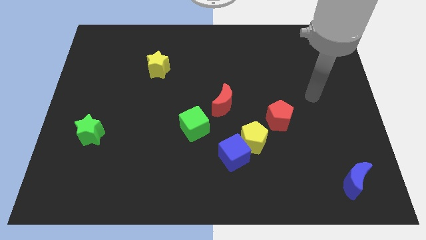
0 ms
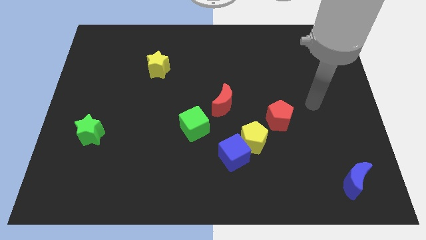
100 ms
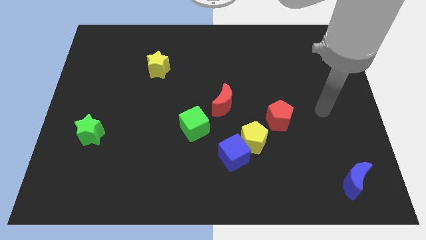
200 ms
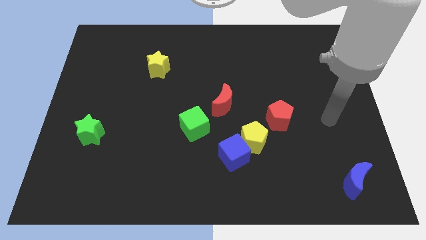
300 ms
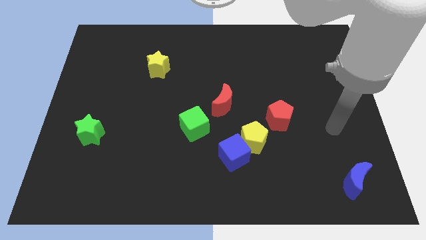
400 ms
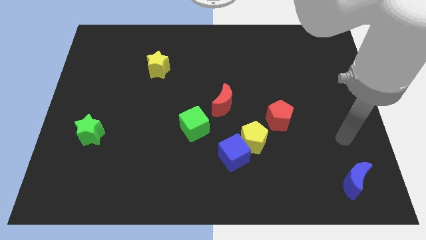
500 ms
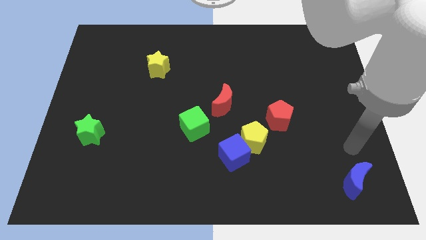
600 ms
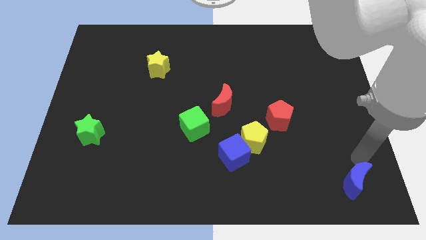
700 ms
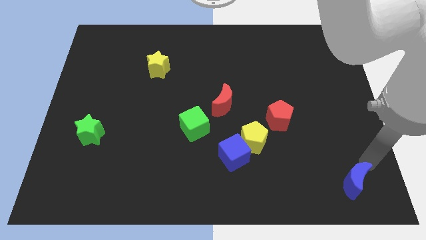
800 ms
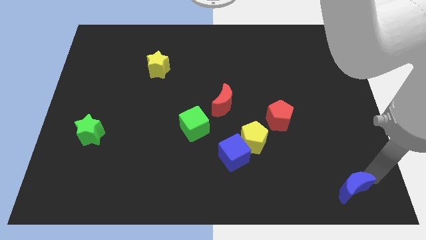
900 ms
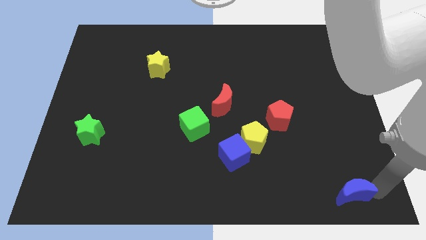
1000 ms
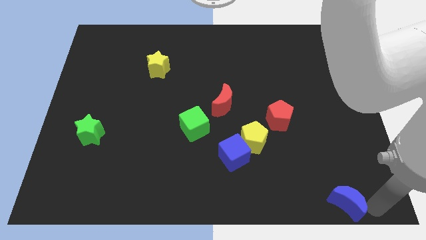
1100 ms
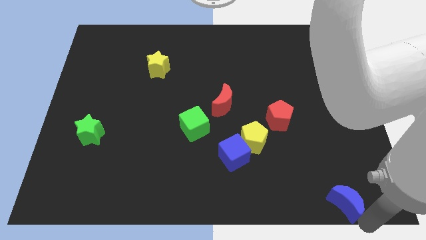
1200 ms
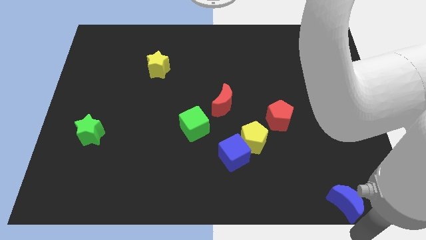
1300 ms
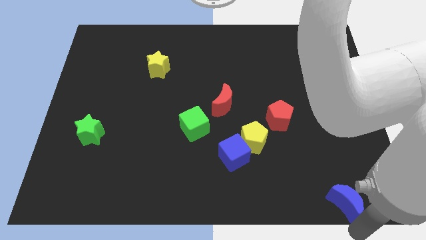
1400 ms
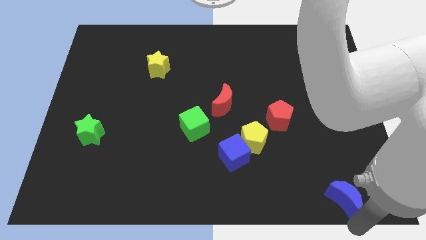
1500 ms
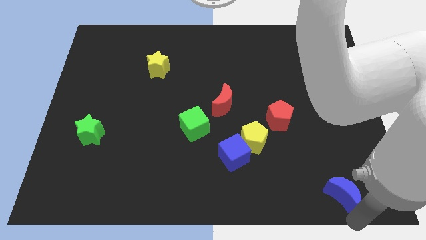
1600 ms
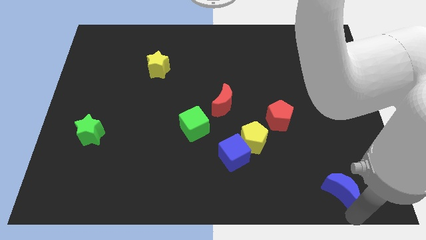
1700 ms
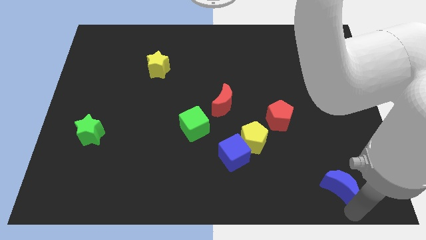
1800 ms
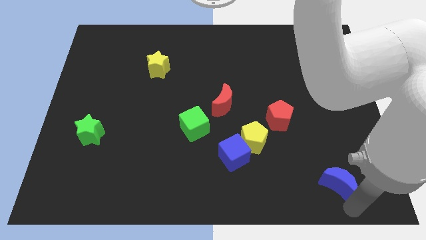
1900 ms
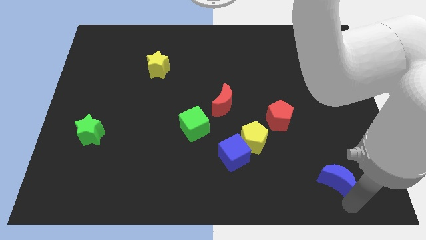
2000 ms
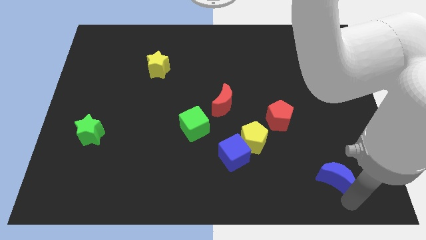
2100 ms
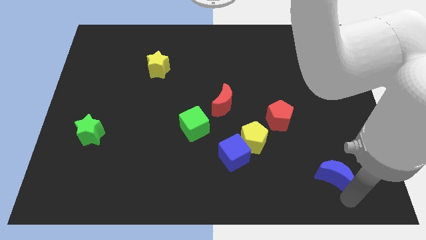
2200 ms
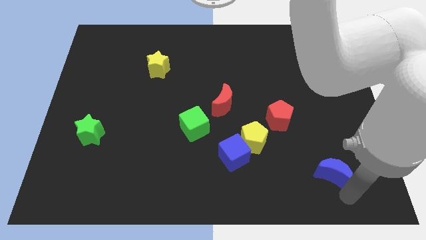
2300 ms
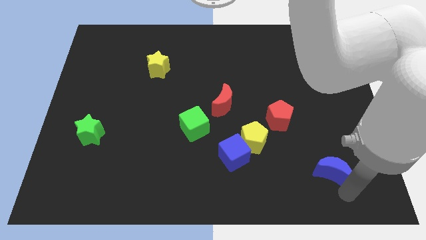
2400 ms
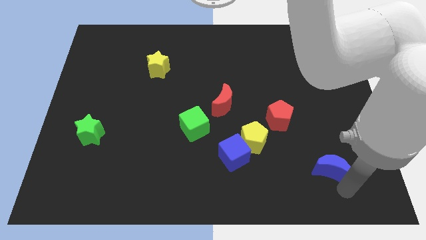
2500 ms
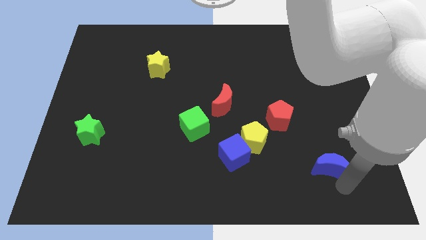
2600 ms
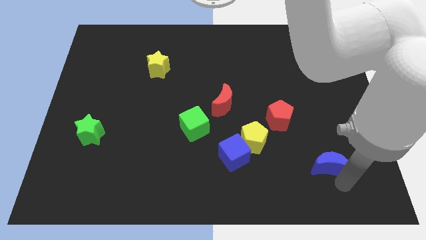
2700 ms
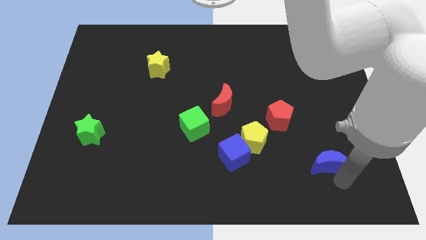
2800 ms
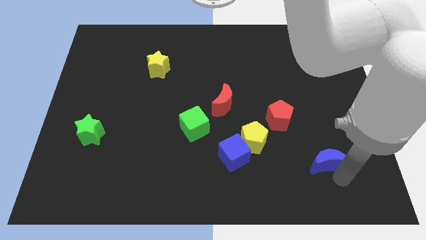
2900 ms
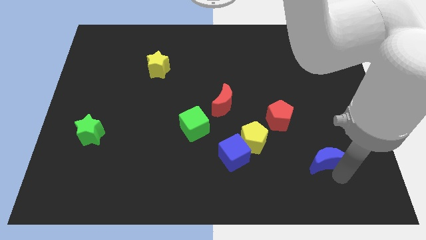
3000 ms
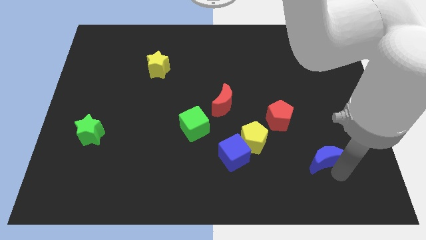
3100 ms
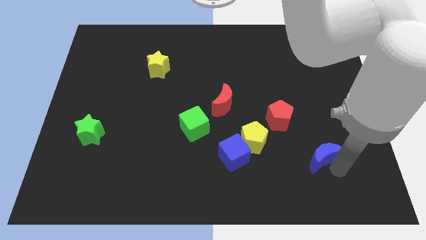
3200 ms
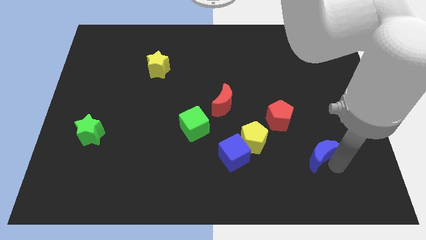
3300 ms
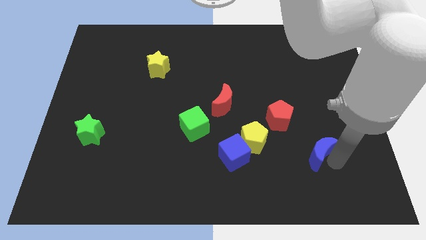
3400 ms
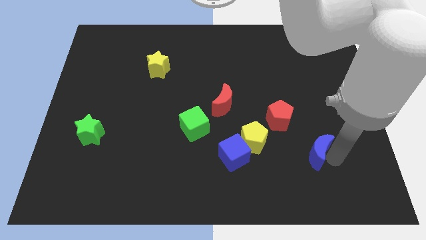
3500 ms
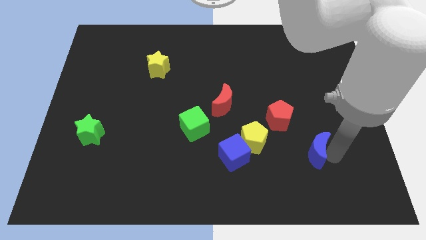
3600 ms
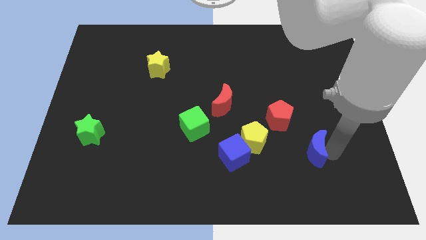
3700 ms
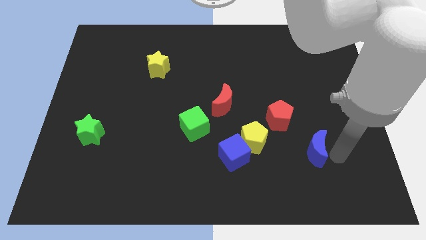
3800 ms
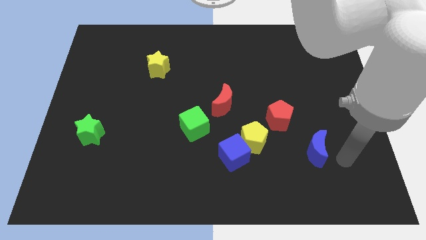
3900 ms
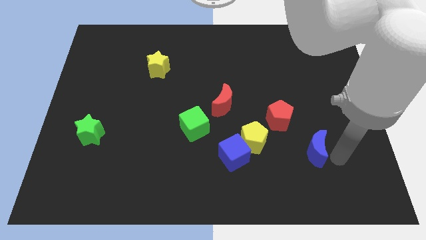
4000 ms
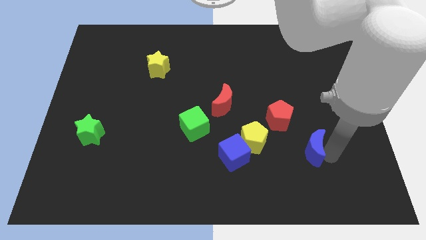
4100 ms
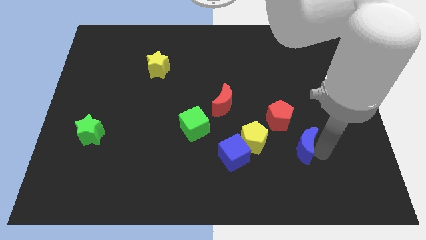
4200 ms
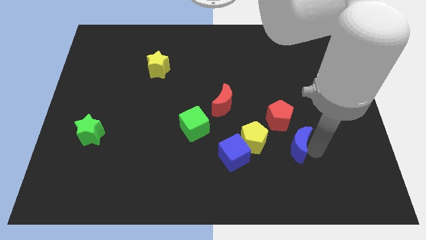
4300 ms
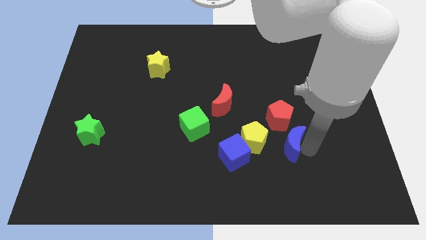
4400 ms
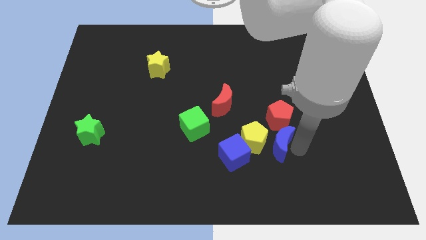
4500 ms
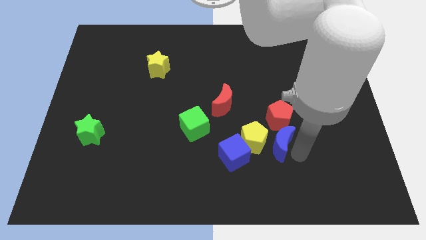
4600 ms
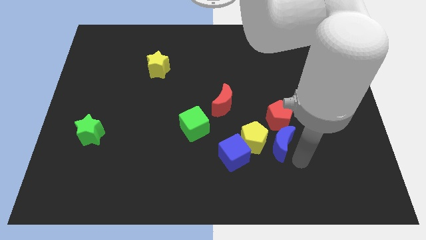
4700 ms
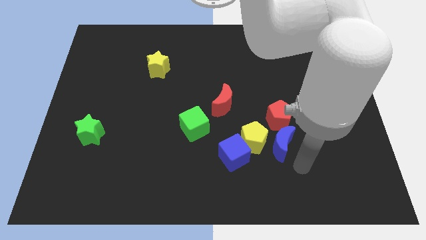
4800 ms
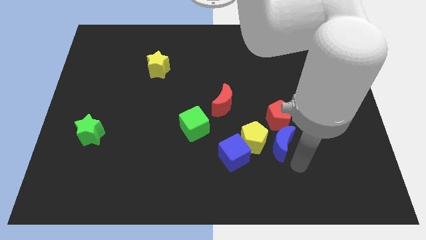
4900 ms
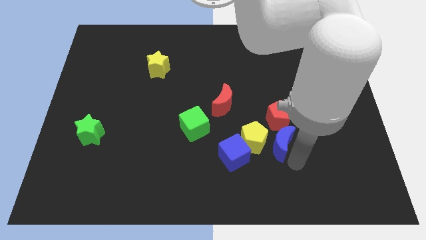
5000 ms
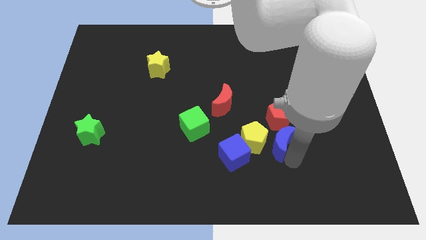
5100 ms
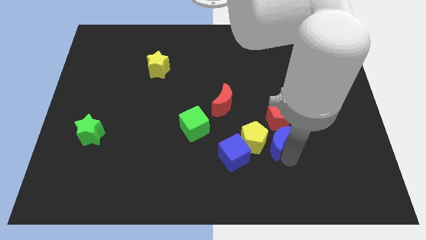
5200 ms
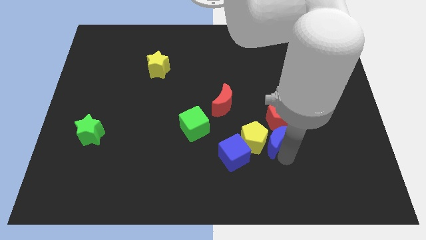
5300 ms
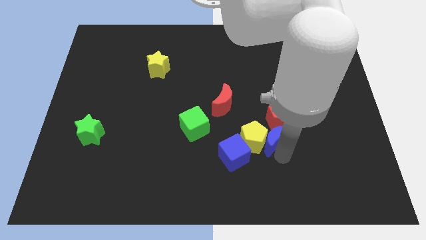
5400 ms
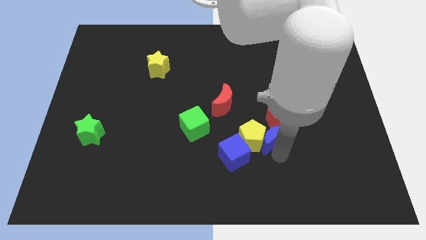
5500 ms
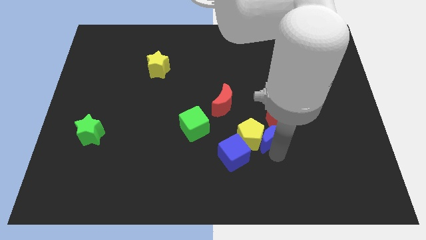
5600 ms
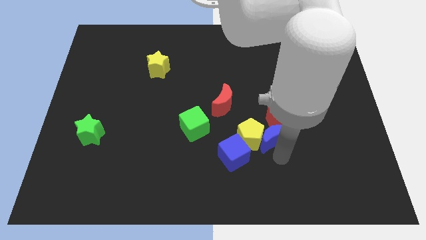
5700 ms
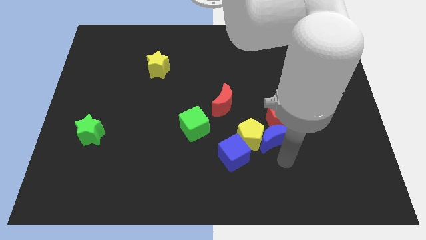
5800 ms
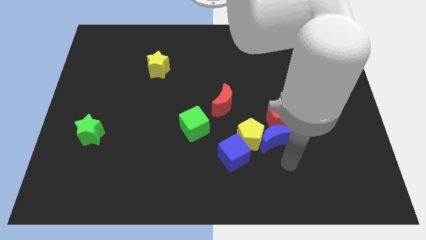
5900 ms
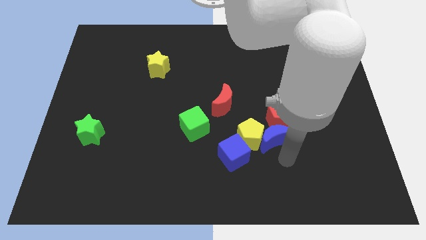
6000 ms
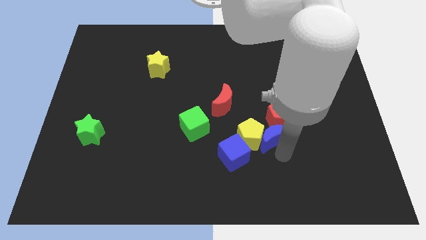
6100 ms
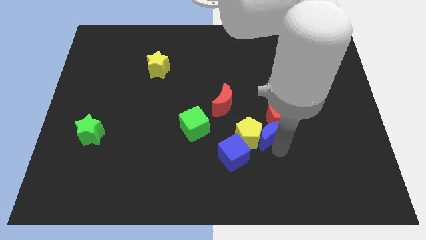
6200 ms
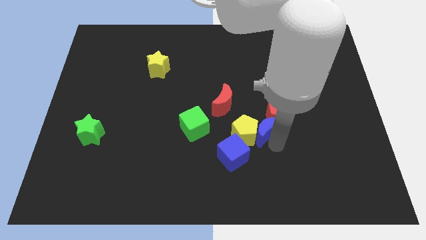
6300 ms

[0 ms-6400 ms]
slide the blue moon up and left diagonally

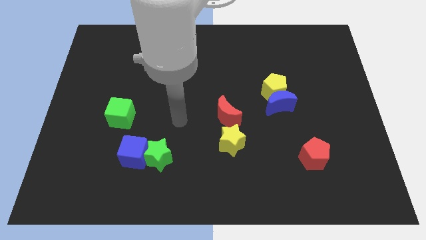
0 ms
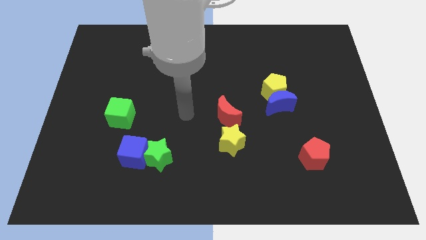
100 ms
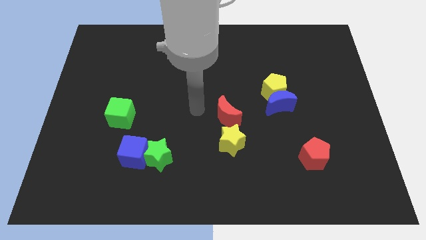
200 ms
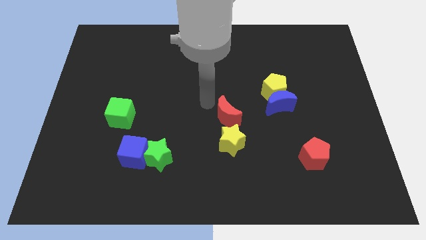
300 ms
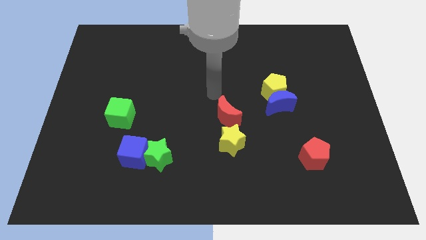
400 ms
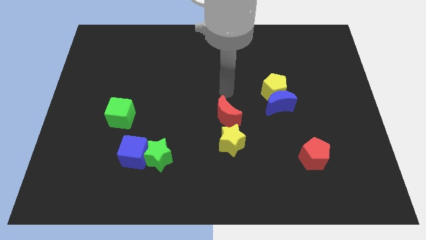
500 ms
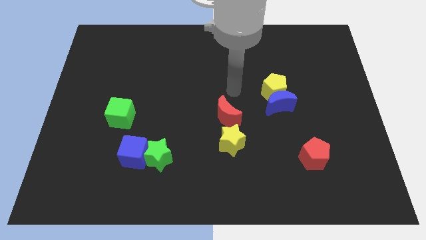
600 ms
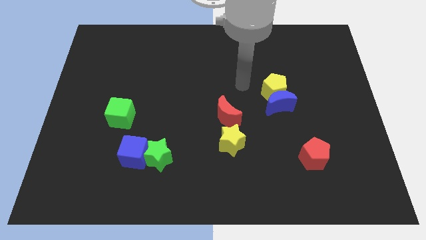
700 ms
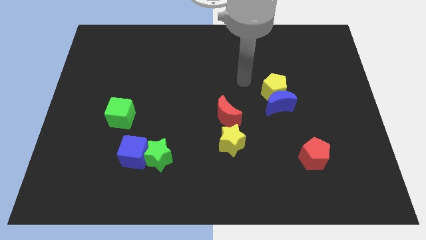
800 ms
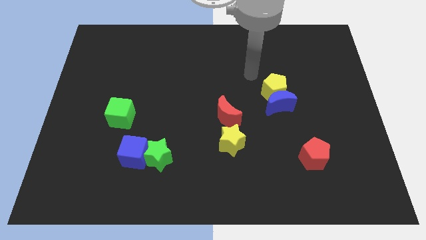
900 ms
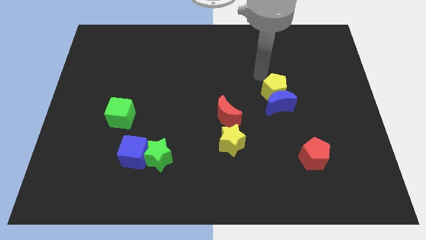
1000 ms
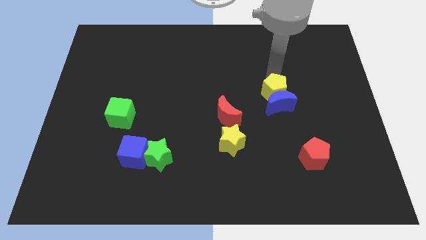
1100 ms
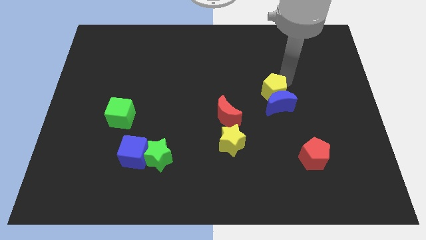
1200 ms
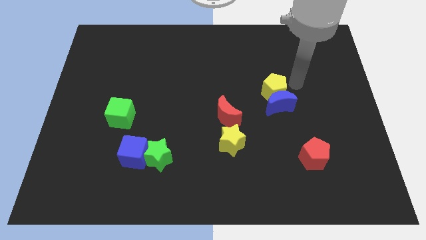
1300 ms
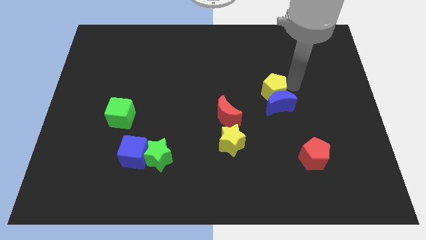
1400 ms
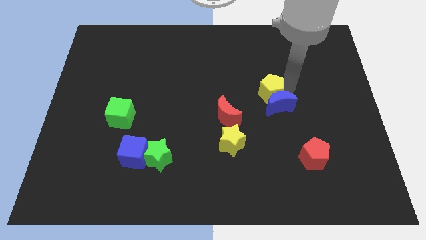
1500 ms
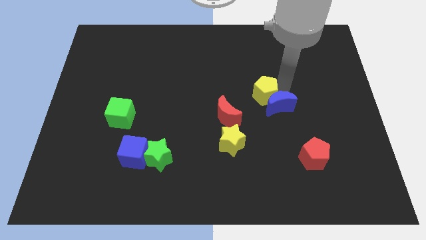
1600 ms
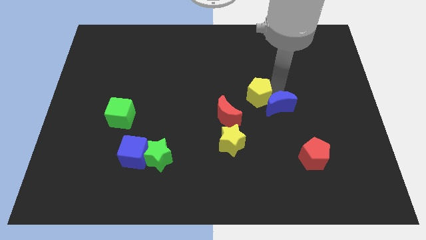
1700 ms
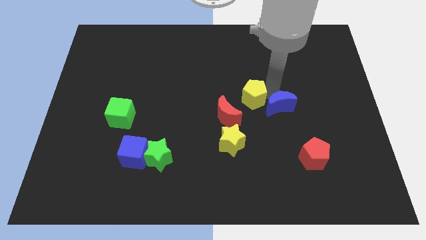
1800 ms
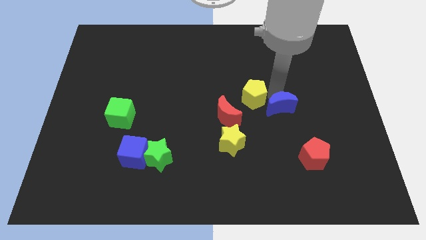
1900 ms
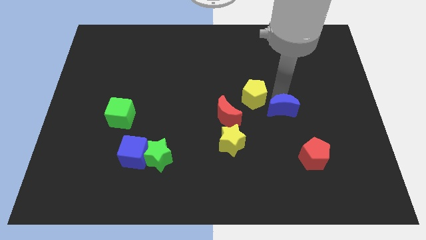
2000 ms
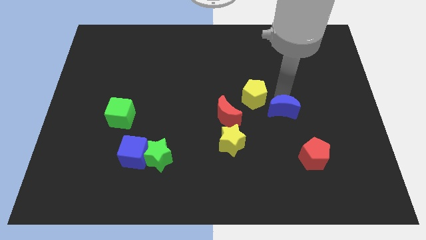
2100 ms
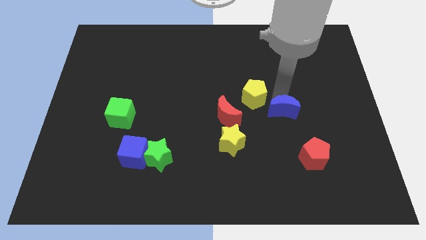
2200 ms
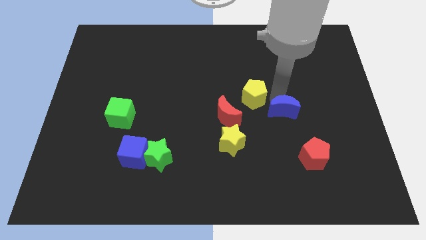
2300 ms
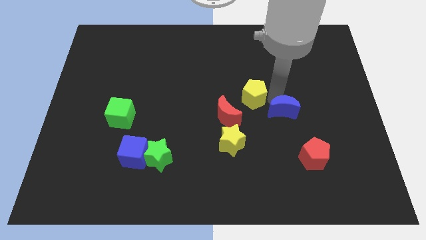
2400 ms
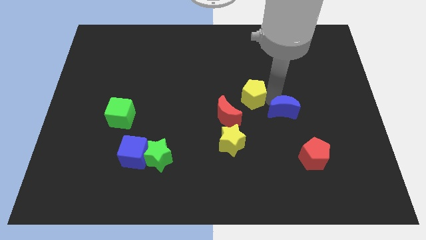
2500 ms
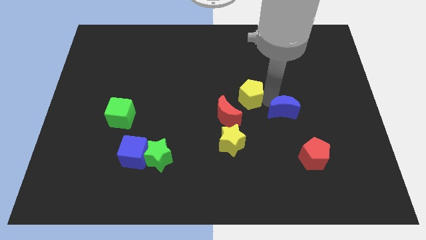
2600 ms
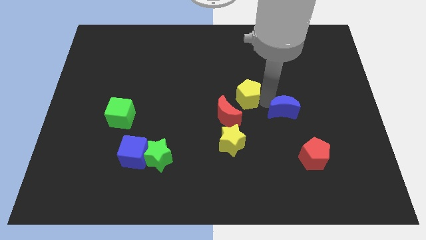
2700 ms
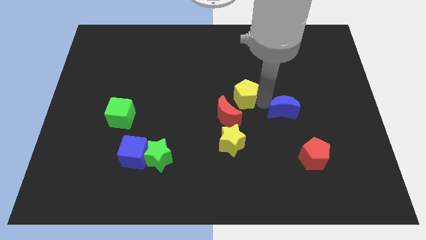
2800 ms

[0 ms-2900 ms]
slide the yellow pentagon somewhat to the left
